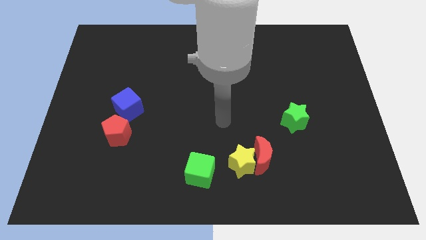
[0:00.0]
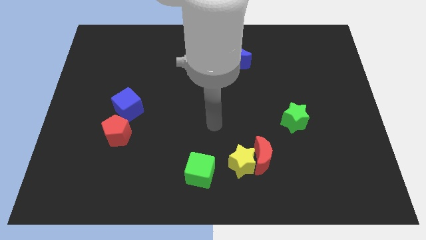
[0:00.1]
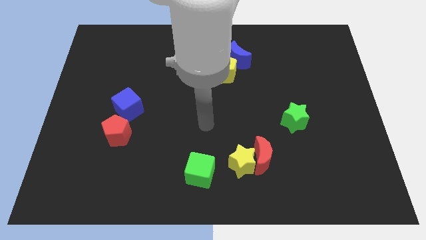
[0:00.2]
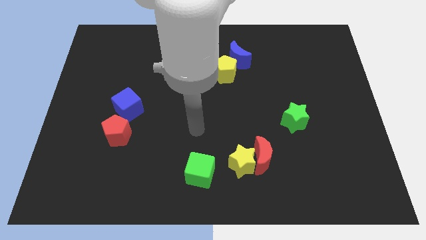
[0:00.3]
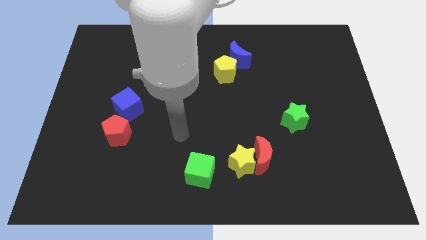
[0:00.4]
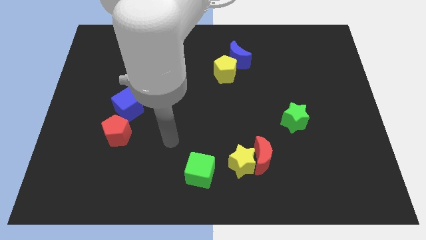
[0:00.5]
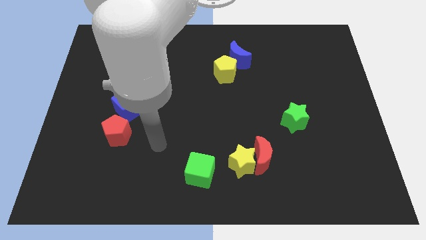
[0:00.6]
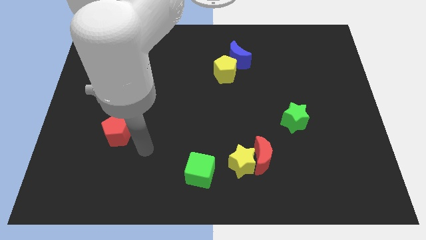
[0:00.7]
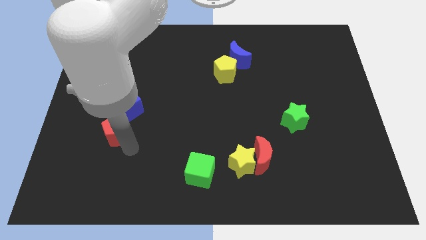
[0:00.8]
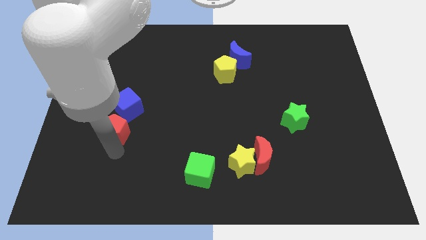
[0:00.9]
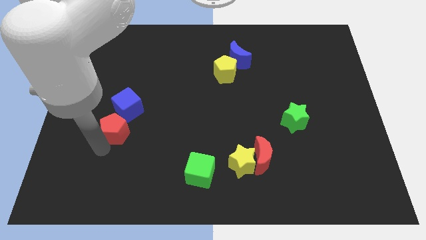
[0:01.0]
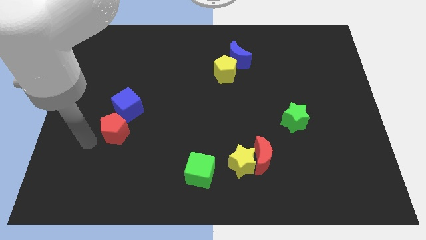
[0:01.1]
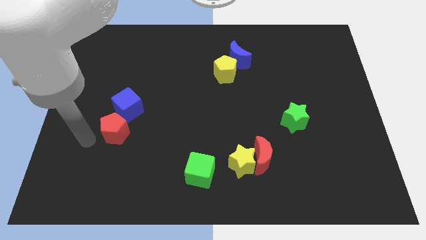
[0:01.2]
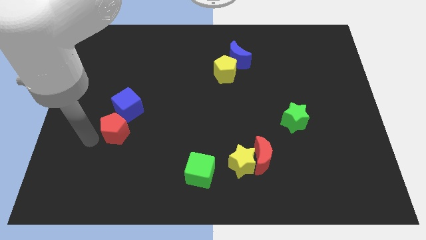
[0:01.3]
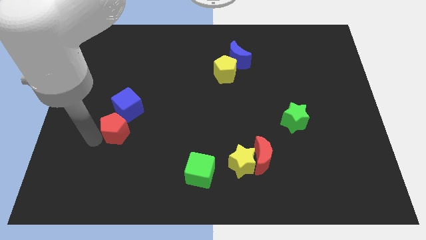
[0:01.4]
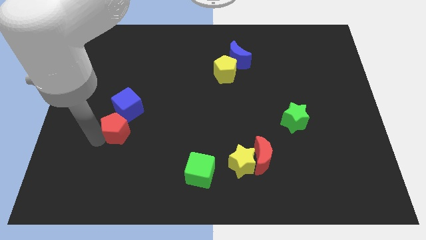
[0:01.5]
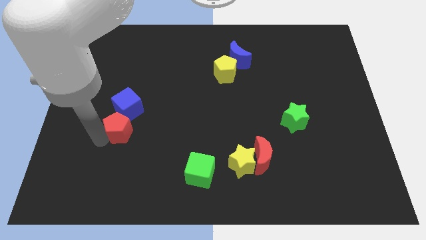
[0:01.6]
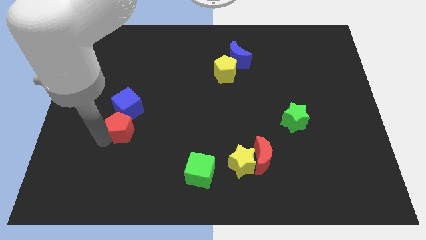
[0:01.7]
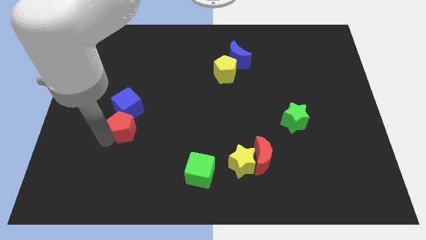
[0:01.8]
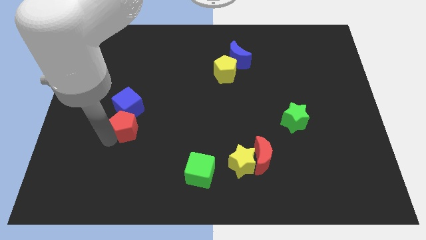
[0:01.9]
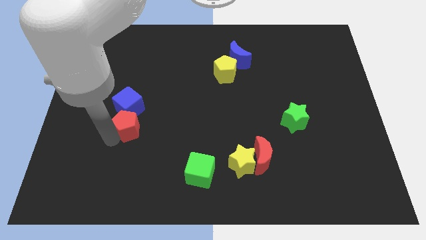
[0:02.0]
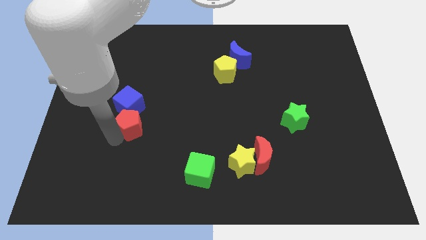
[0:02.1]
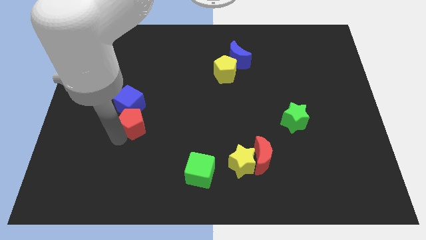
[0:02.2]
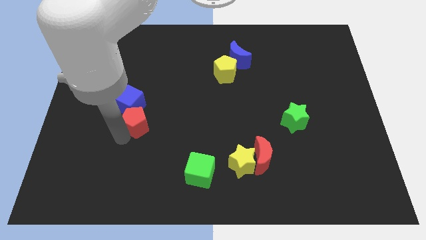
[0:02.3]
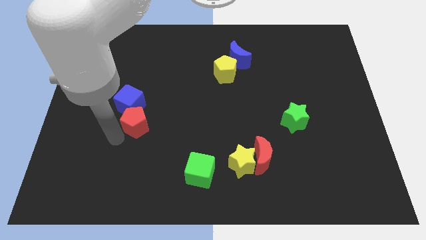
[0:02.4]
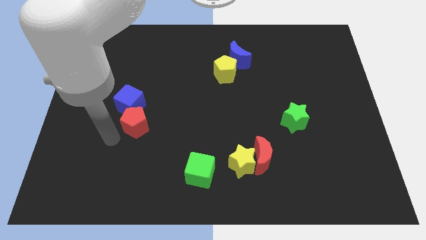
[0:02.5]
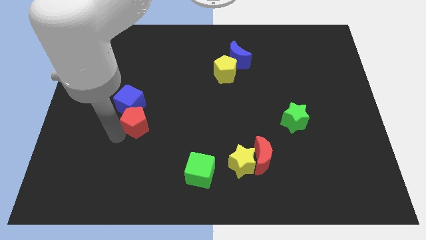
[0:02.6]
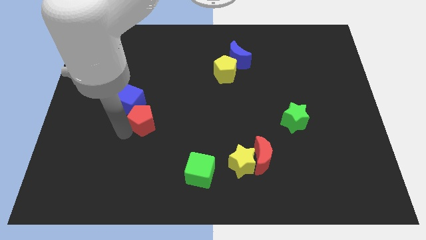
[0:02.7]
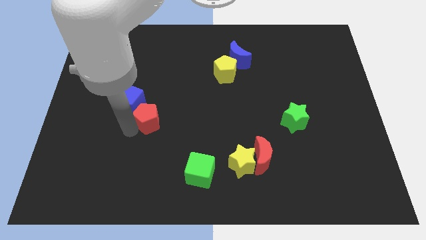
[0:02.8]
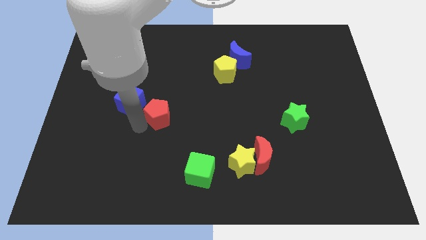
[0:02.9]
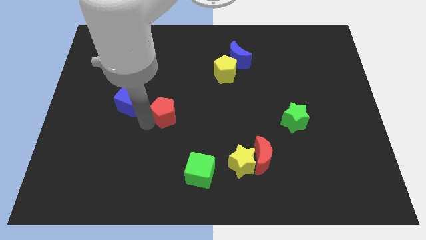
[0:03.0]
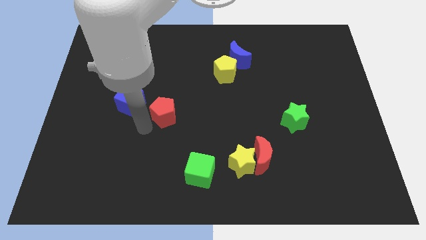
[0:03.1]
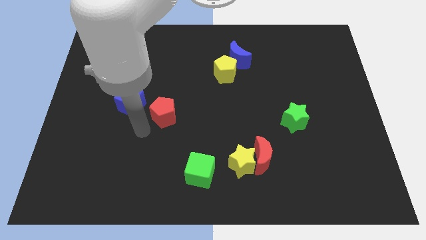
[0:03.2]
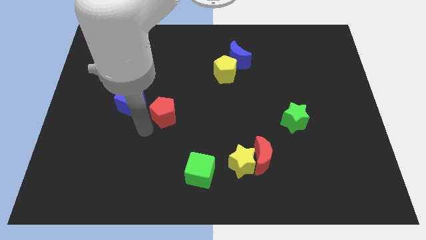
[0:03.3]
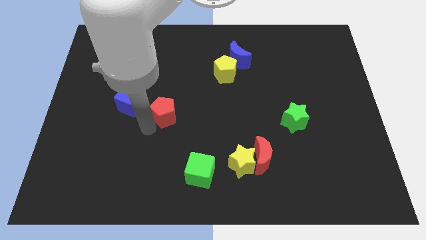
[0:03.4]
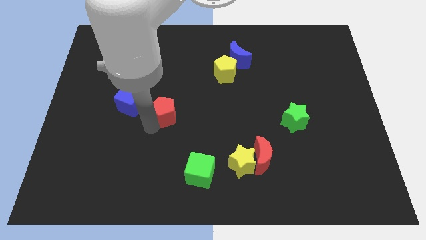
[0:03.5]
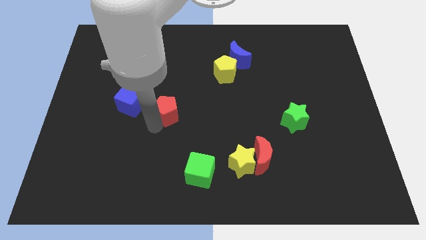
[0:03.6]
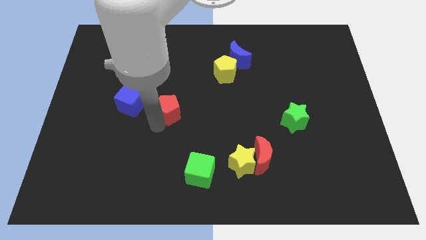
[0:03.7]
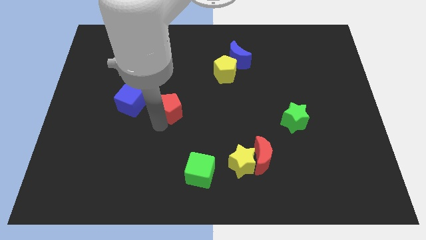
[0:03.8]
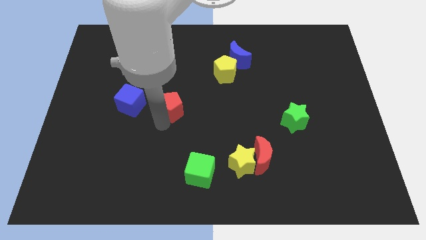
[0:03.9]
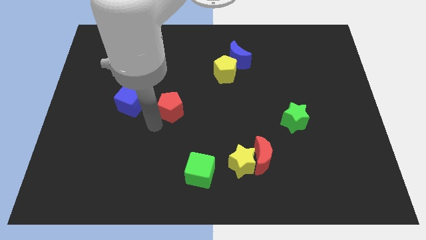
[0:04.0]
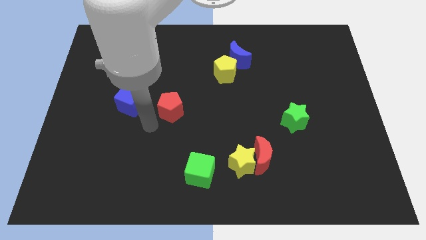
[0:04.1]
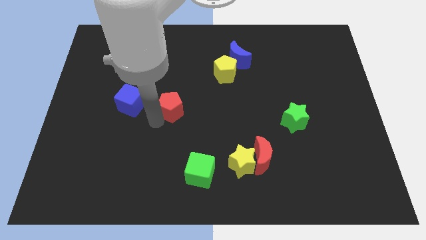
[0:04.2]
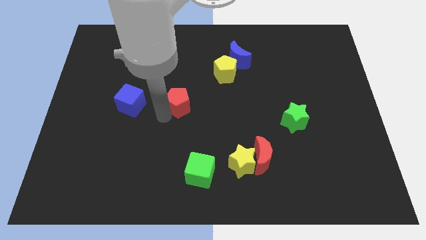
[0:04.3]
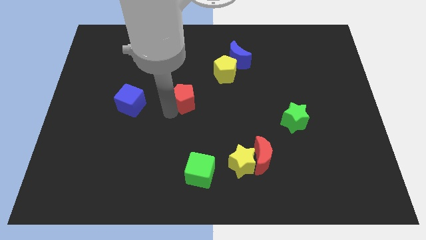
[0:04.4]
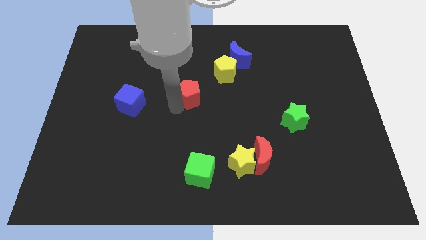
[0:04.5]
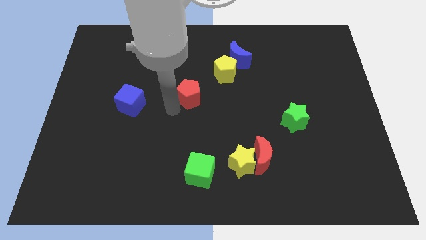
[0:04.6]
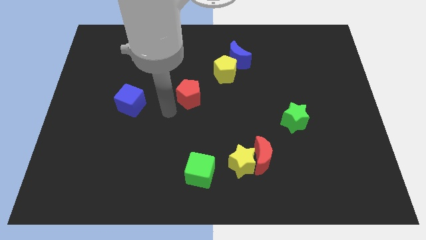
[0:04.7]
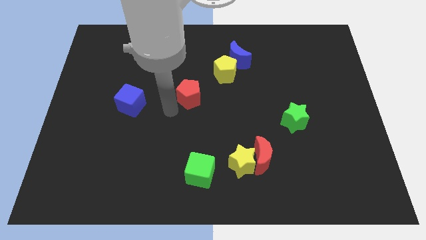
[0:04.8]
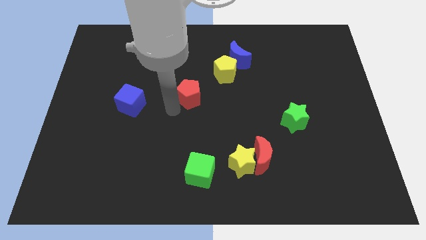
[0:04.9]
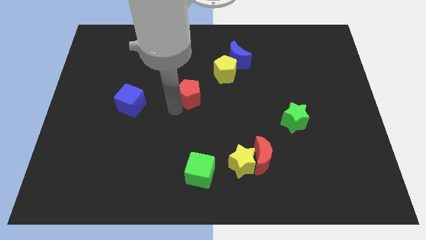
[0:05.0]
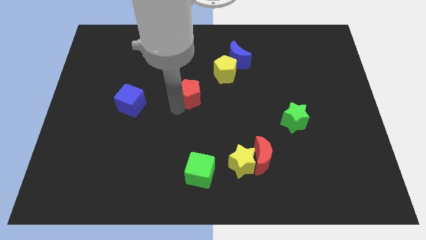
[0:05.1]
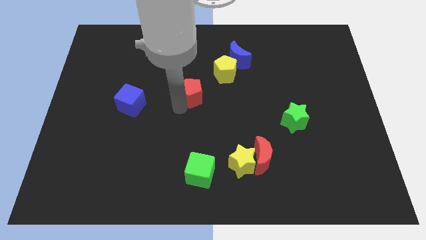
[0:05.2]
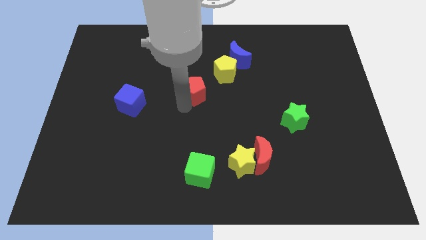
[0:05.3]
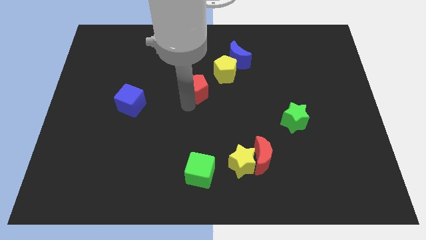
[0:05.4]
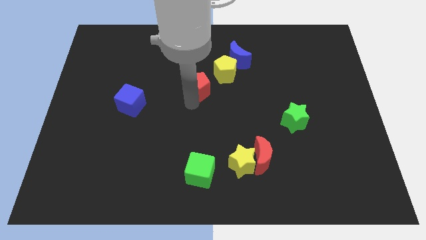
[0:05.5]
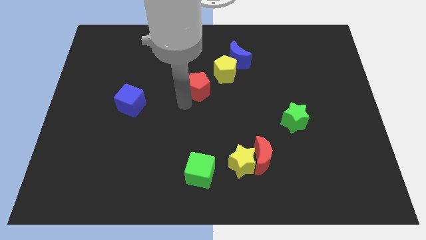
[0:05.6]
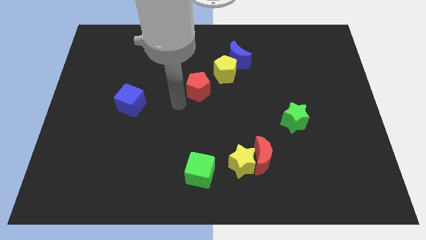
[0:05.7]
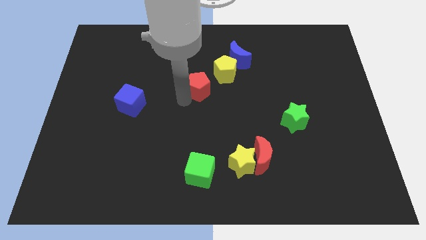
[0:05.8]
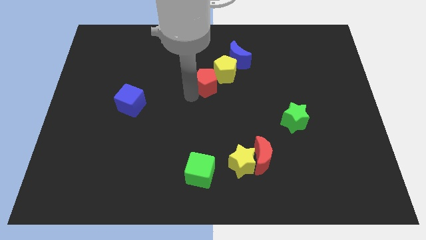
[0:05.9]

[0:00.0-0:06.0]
move the red pentagon close to the yellow pentagon

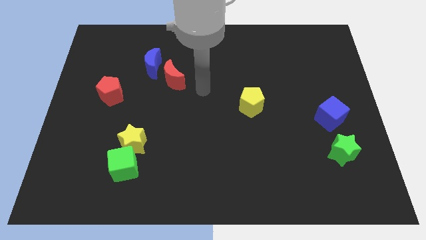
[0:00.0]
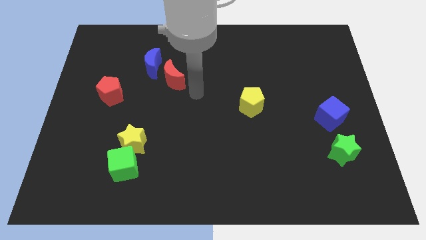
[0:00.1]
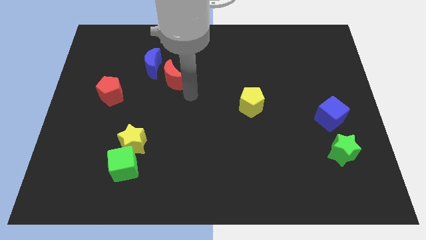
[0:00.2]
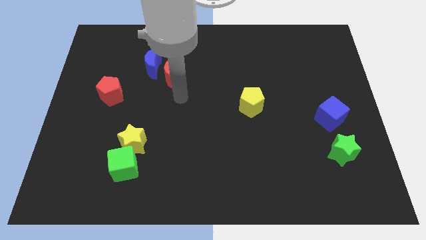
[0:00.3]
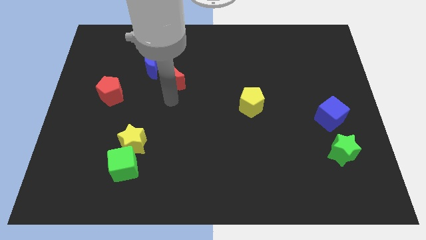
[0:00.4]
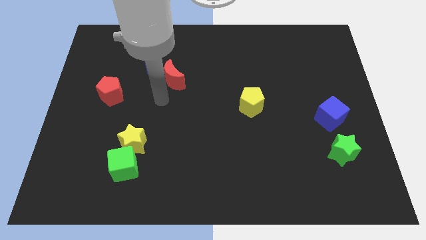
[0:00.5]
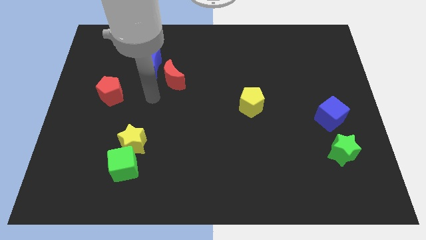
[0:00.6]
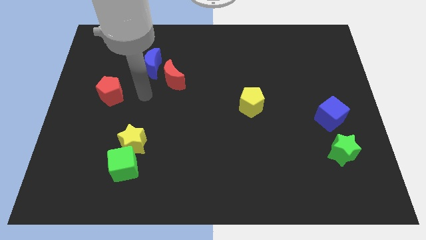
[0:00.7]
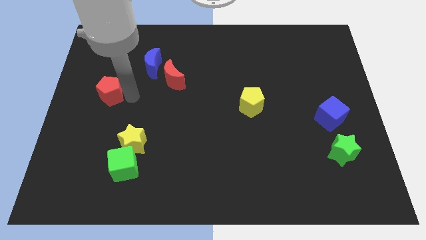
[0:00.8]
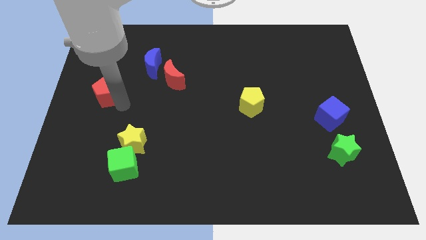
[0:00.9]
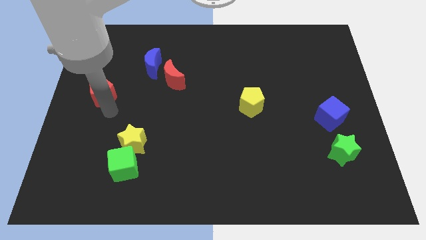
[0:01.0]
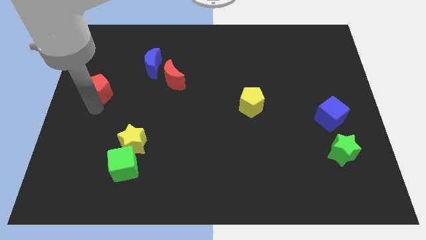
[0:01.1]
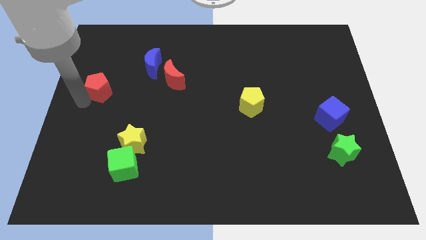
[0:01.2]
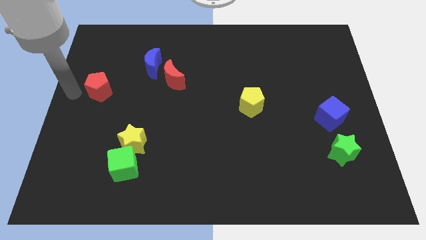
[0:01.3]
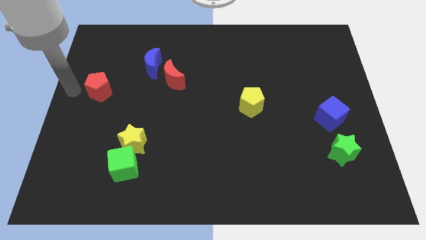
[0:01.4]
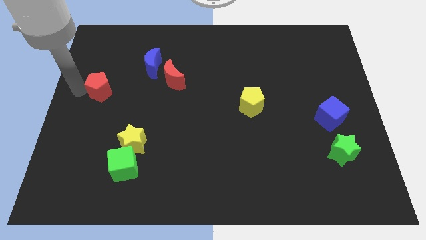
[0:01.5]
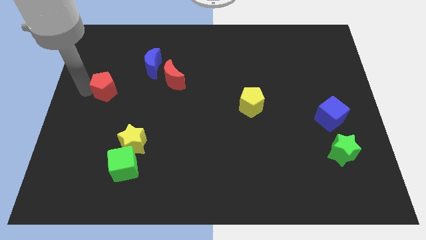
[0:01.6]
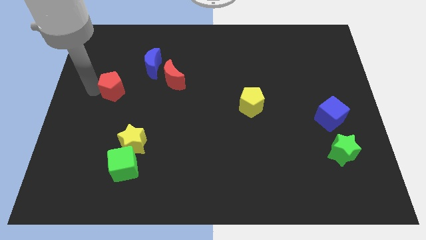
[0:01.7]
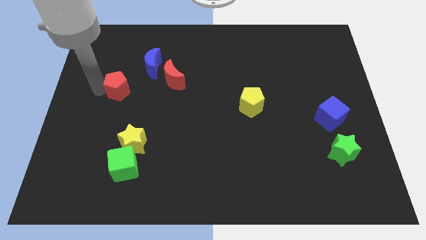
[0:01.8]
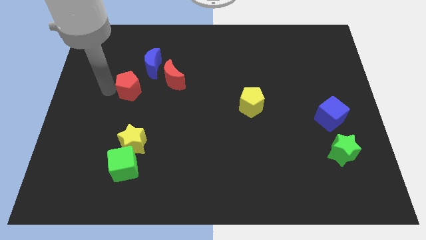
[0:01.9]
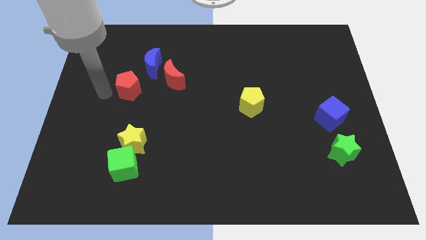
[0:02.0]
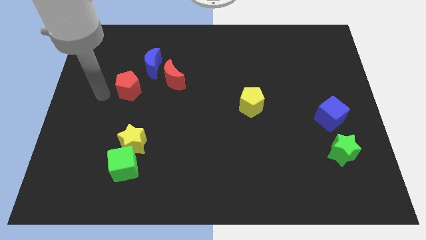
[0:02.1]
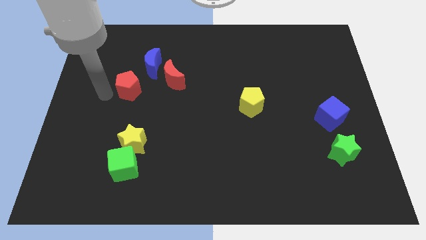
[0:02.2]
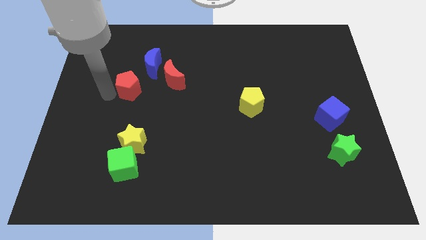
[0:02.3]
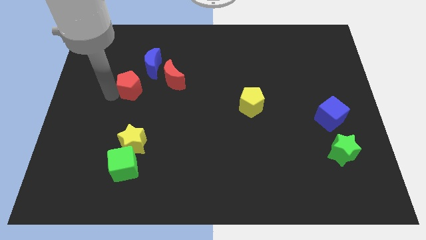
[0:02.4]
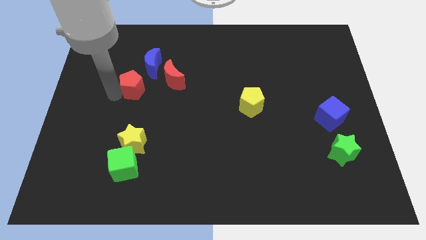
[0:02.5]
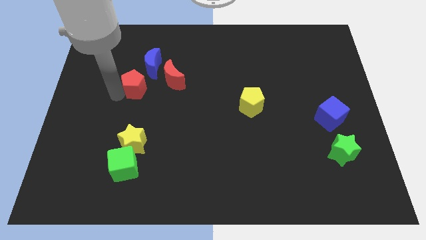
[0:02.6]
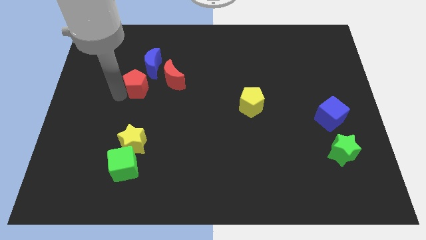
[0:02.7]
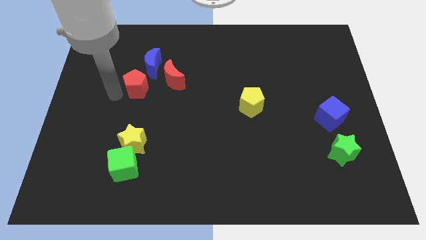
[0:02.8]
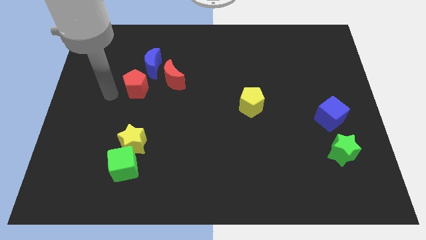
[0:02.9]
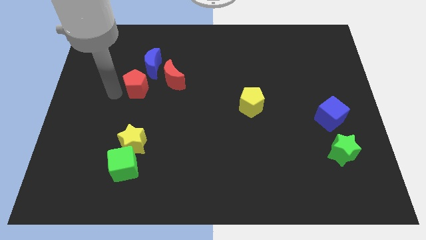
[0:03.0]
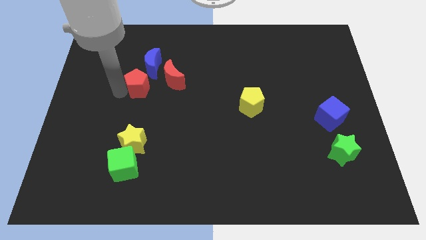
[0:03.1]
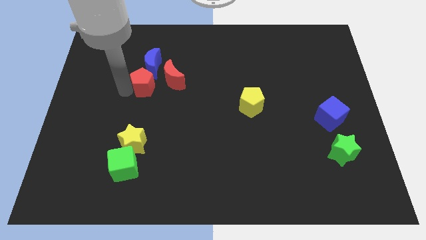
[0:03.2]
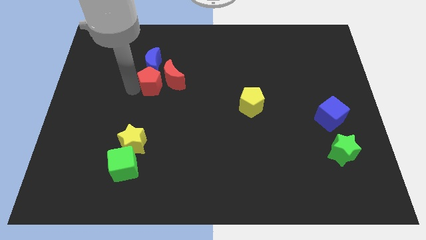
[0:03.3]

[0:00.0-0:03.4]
push the red pentagon to the red moon
